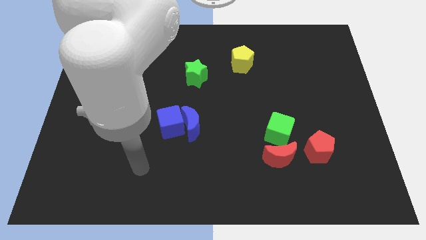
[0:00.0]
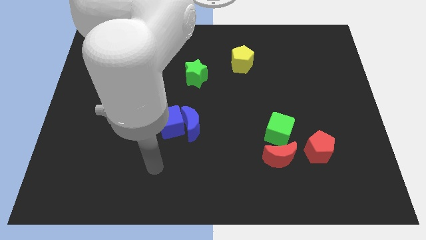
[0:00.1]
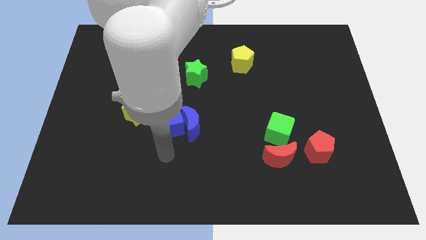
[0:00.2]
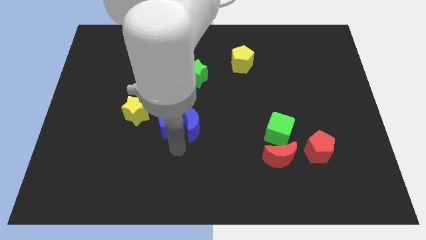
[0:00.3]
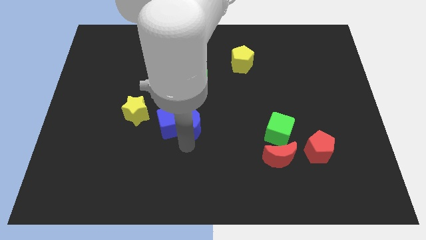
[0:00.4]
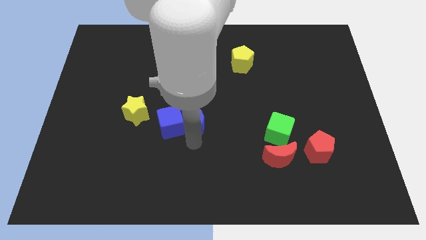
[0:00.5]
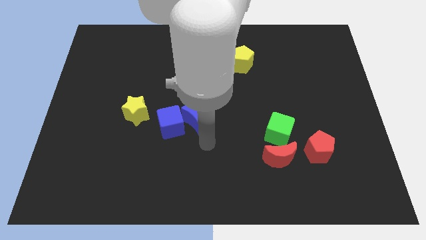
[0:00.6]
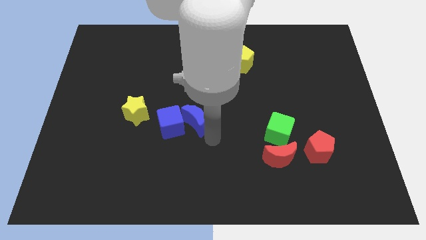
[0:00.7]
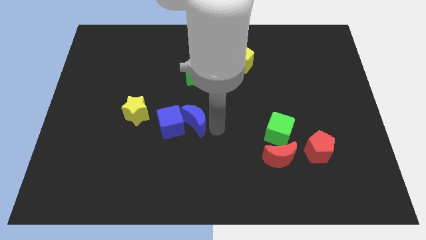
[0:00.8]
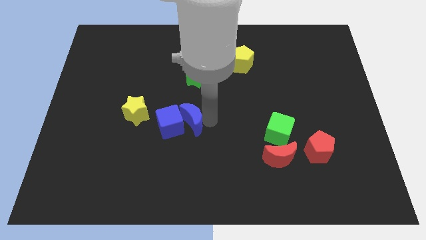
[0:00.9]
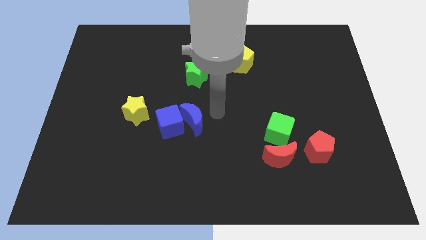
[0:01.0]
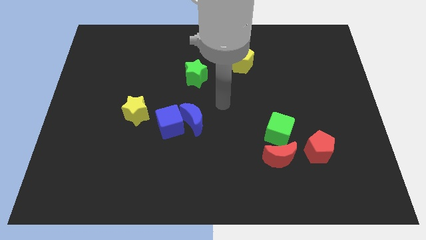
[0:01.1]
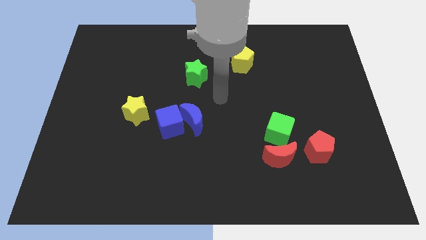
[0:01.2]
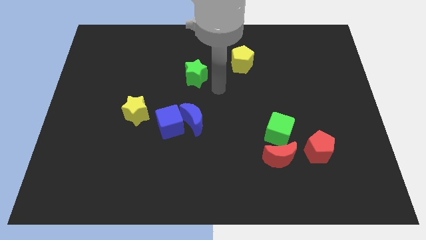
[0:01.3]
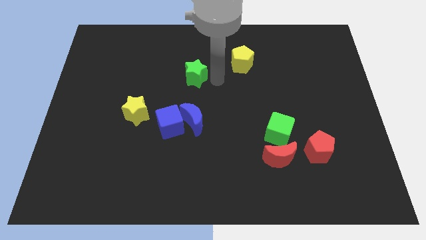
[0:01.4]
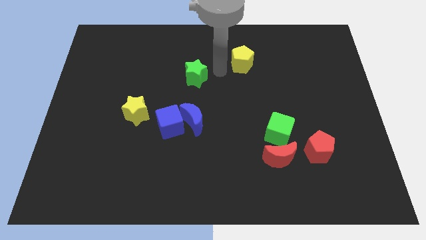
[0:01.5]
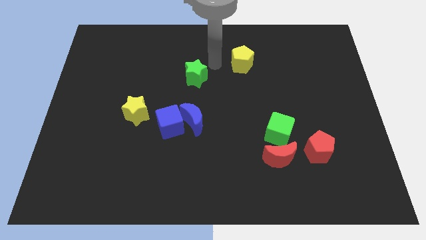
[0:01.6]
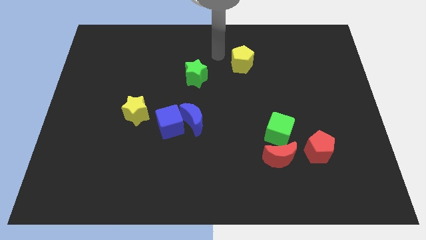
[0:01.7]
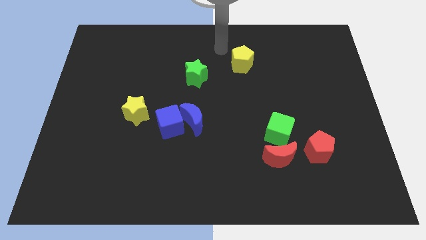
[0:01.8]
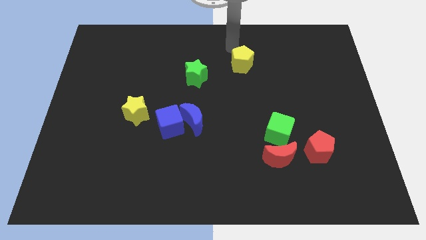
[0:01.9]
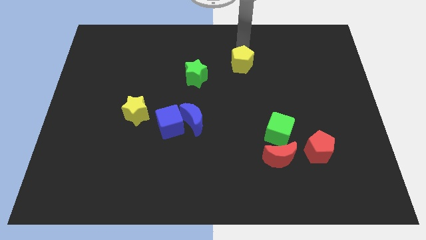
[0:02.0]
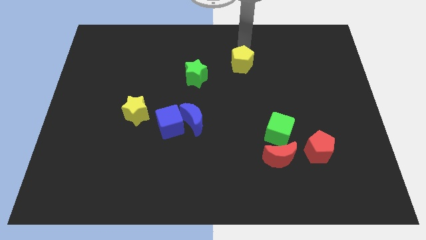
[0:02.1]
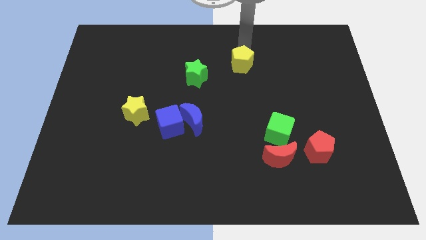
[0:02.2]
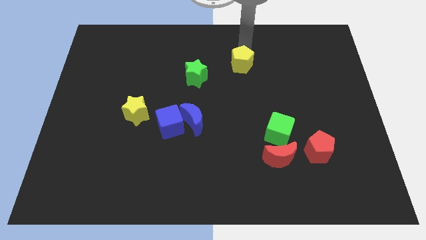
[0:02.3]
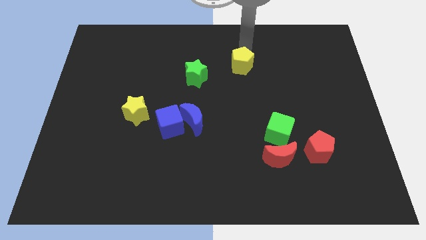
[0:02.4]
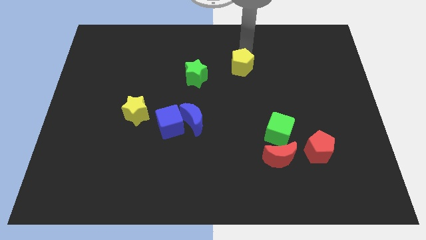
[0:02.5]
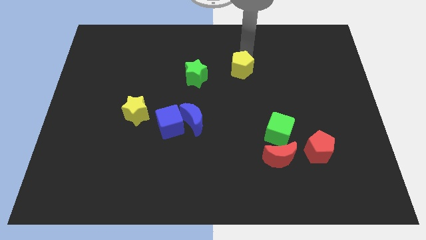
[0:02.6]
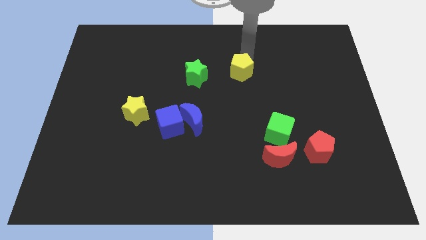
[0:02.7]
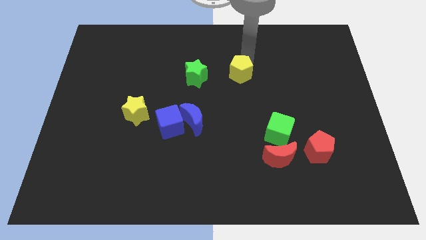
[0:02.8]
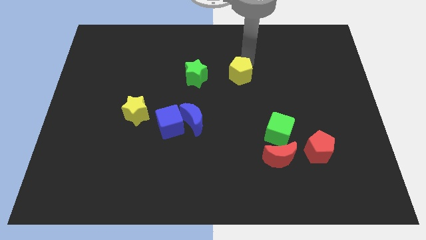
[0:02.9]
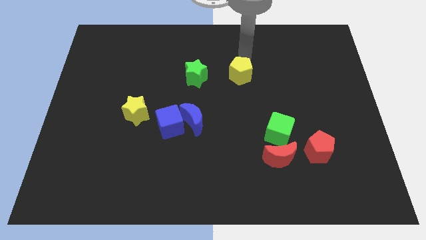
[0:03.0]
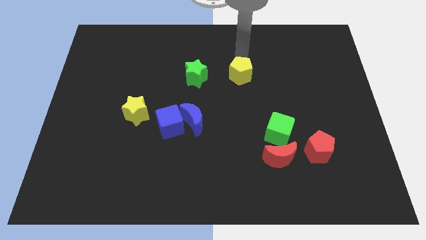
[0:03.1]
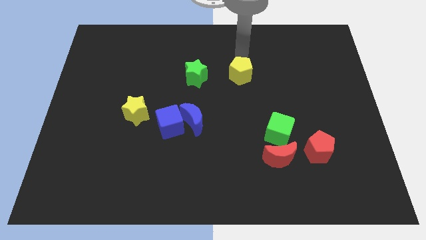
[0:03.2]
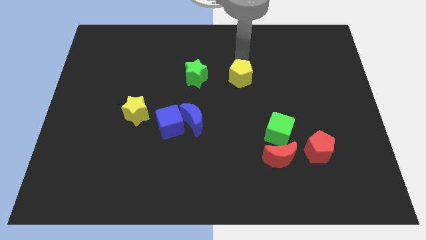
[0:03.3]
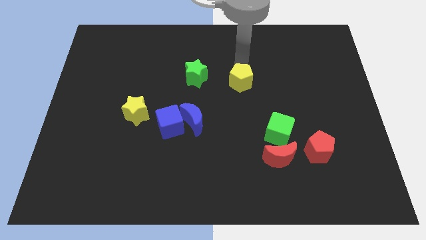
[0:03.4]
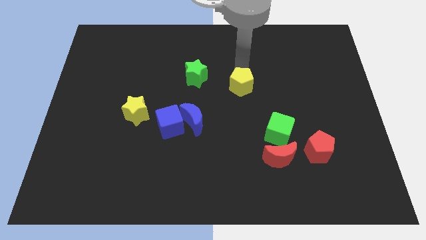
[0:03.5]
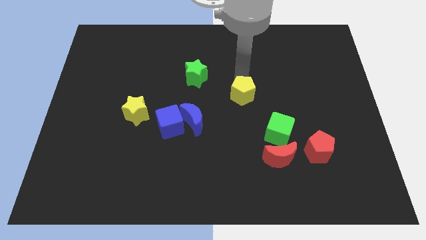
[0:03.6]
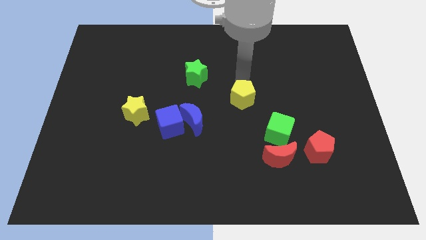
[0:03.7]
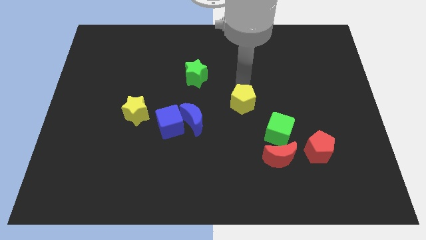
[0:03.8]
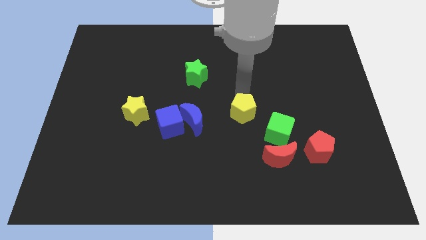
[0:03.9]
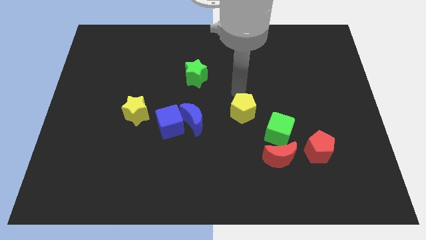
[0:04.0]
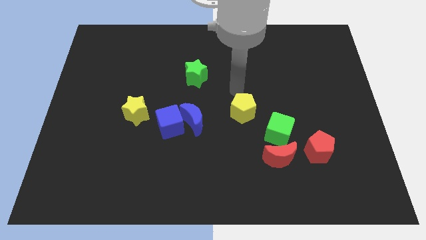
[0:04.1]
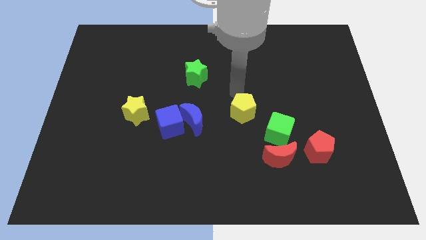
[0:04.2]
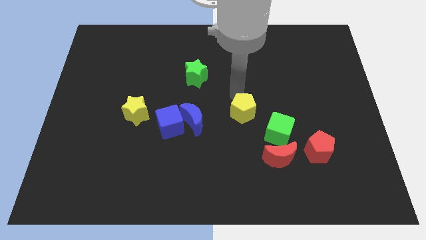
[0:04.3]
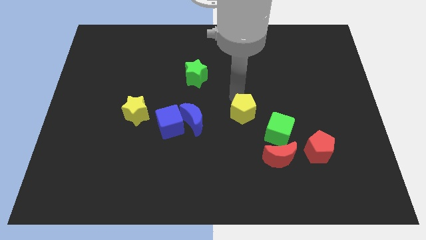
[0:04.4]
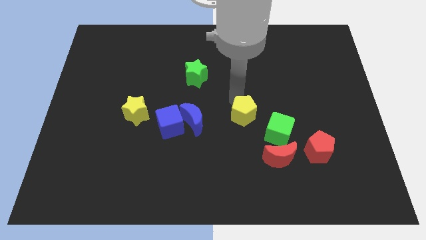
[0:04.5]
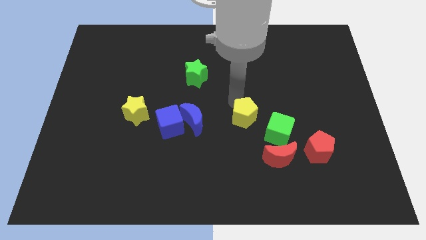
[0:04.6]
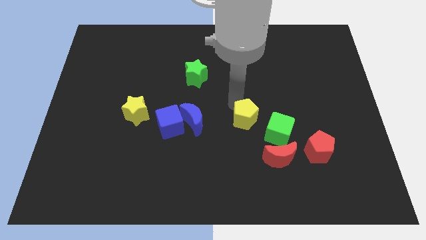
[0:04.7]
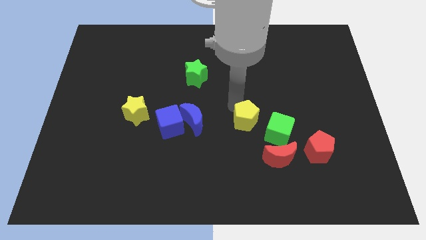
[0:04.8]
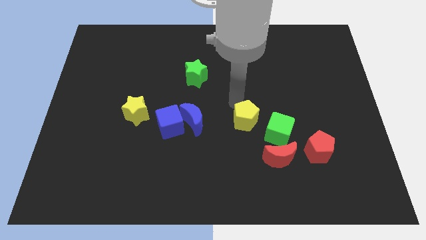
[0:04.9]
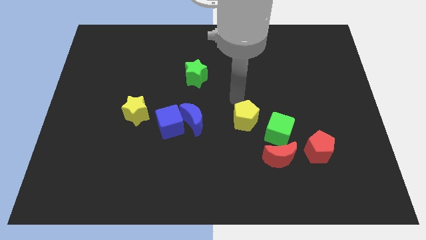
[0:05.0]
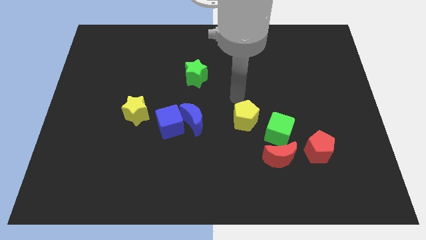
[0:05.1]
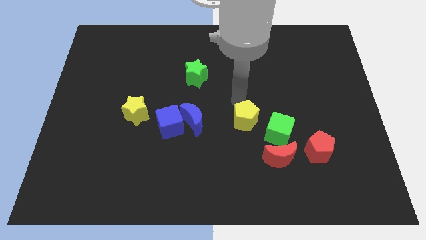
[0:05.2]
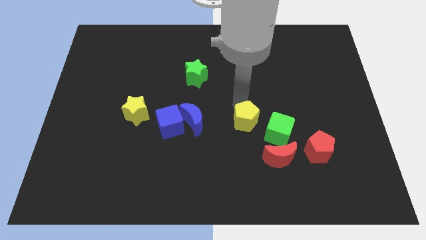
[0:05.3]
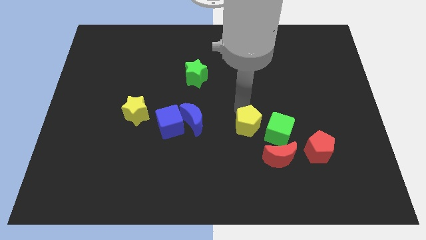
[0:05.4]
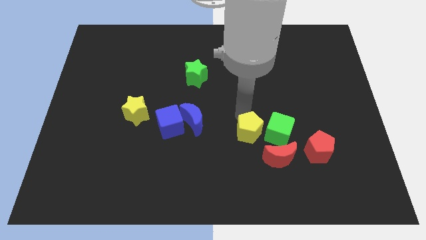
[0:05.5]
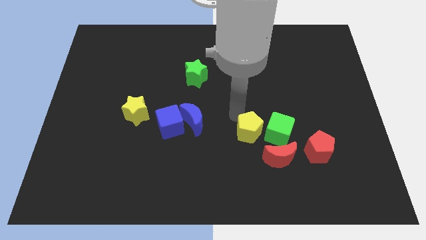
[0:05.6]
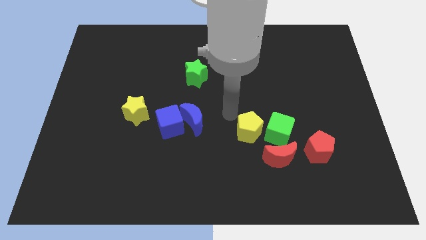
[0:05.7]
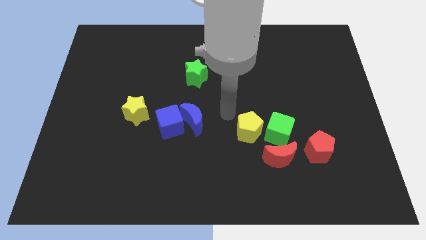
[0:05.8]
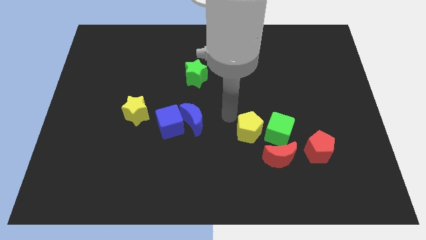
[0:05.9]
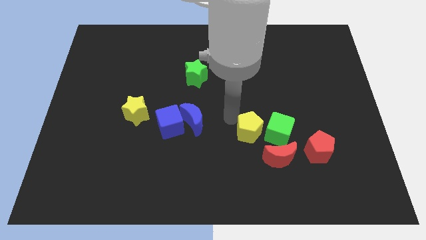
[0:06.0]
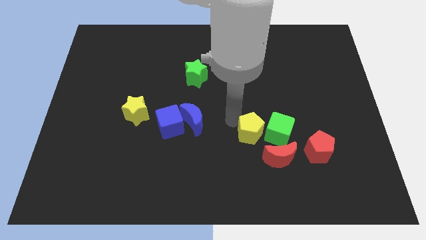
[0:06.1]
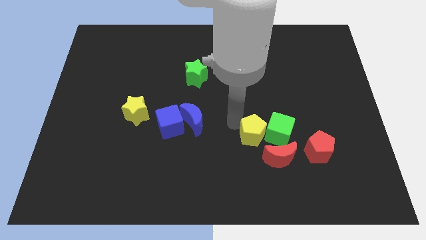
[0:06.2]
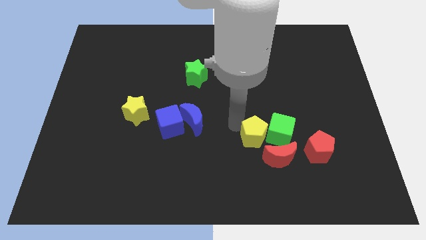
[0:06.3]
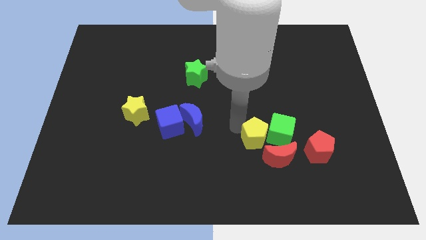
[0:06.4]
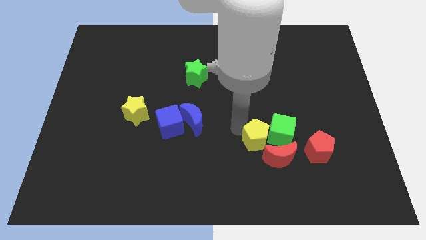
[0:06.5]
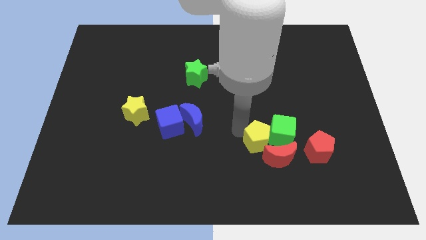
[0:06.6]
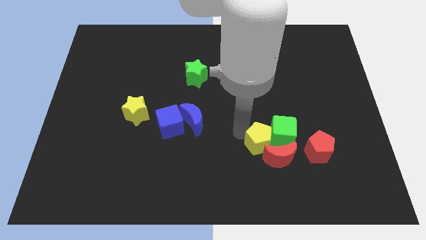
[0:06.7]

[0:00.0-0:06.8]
move the yellow pentagon towards the red moon

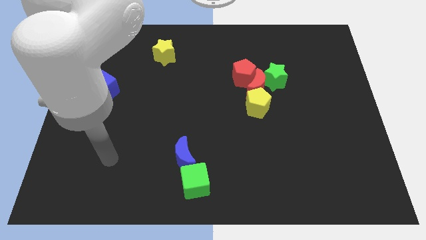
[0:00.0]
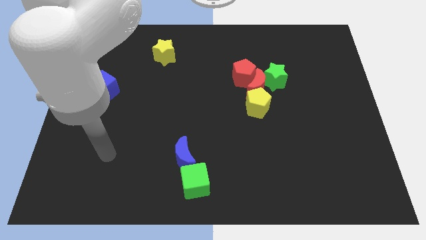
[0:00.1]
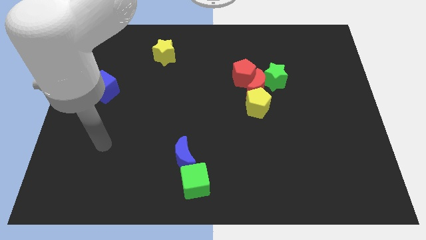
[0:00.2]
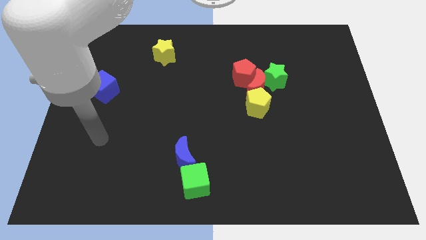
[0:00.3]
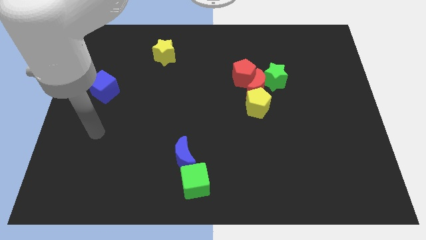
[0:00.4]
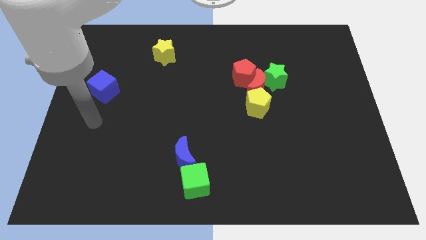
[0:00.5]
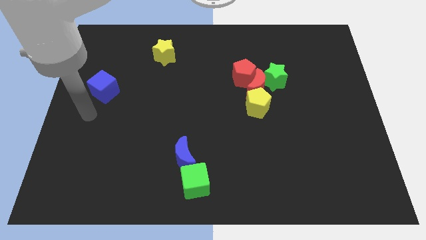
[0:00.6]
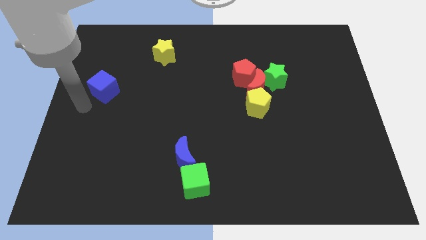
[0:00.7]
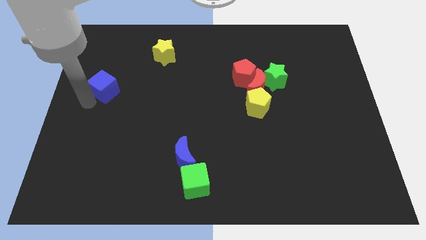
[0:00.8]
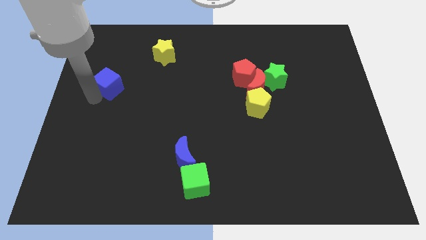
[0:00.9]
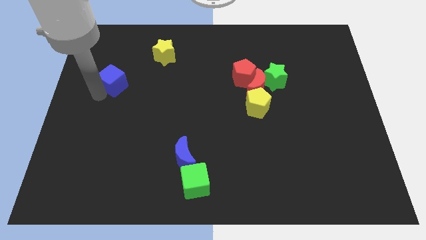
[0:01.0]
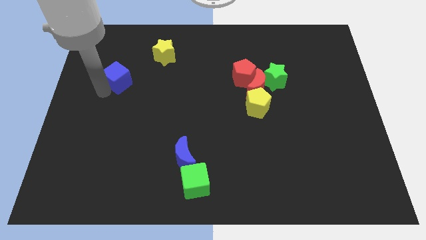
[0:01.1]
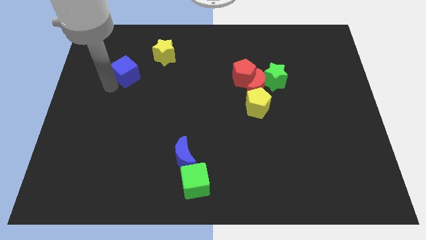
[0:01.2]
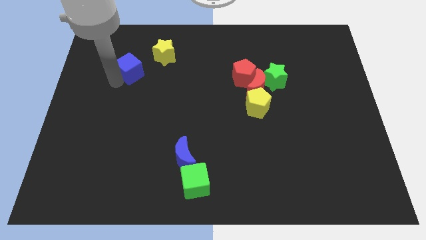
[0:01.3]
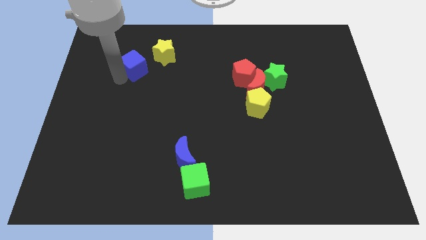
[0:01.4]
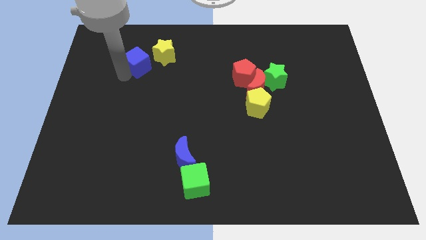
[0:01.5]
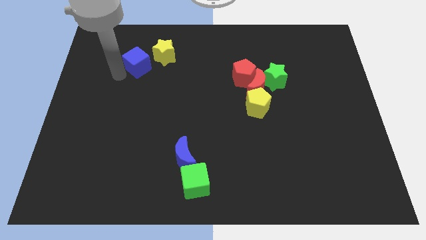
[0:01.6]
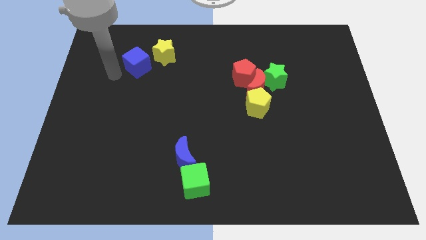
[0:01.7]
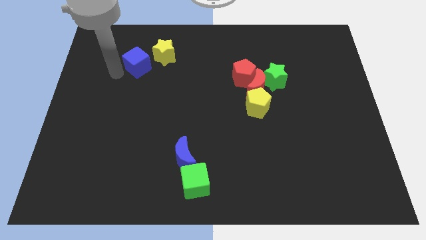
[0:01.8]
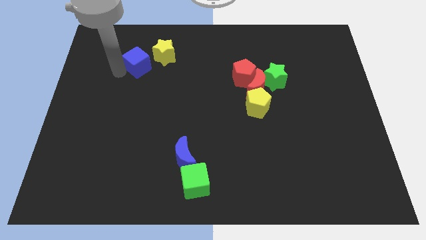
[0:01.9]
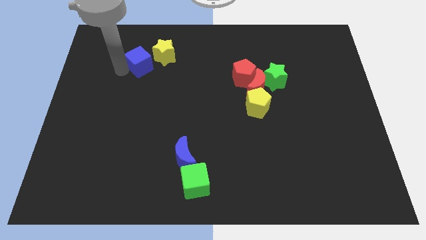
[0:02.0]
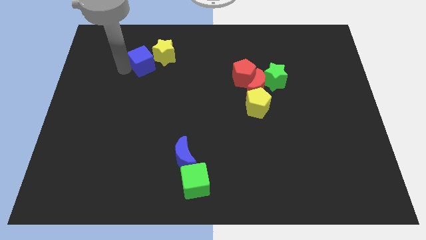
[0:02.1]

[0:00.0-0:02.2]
push the blue cube to the yellow star
